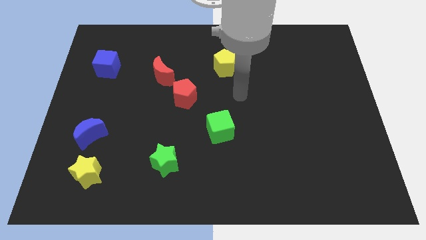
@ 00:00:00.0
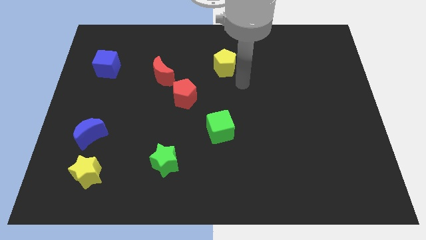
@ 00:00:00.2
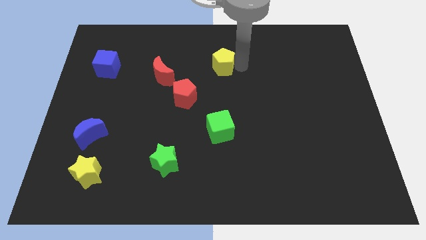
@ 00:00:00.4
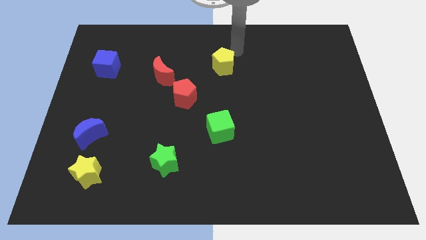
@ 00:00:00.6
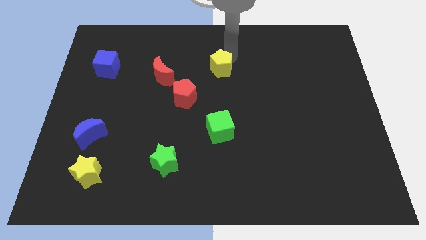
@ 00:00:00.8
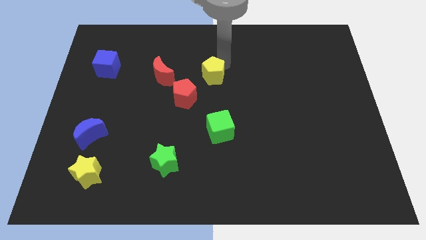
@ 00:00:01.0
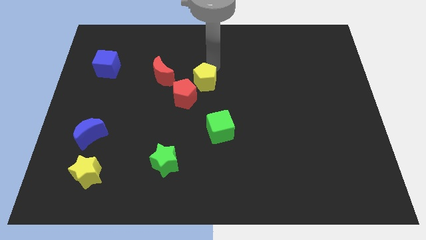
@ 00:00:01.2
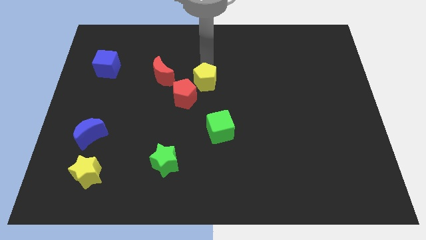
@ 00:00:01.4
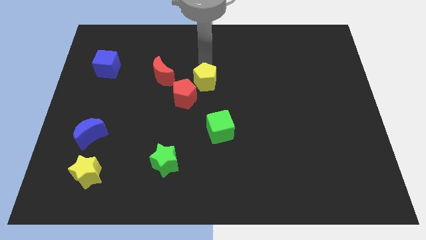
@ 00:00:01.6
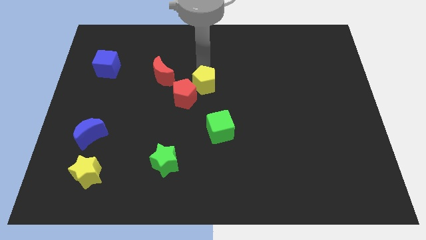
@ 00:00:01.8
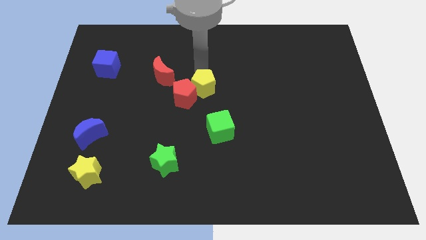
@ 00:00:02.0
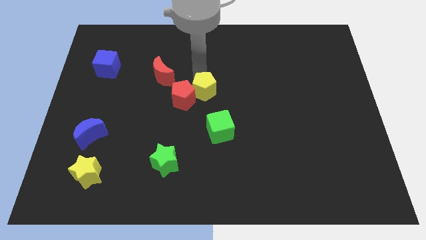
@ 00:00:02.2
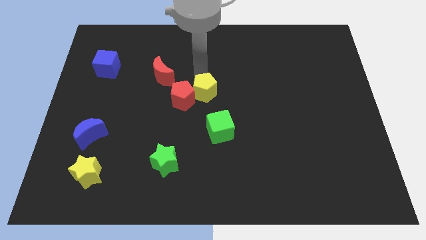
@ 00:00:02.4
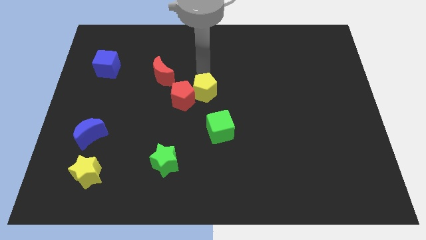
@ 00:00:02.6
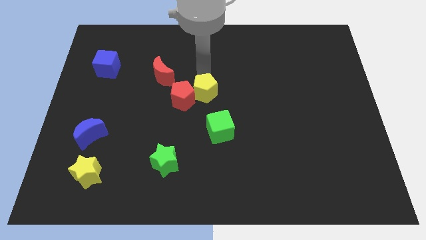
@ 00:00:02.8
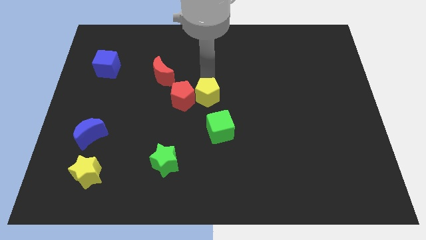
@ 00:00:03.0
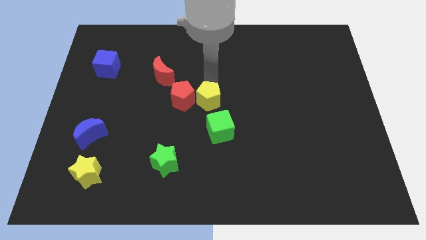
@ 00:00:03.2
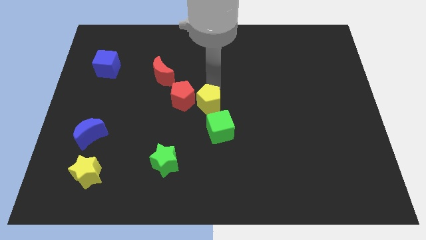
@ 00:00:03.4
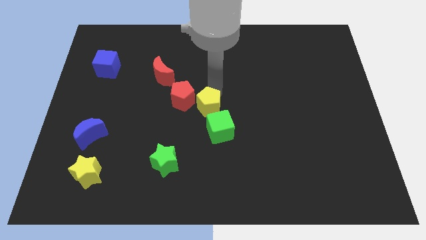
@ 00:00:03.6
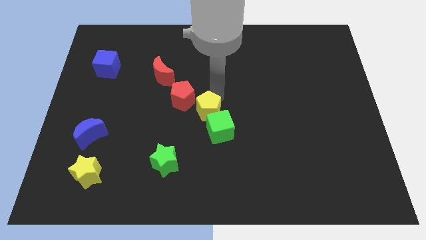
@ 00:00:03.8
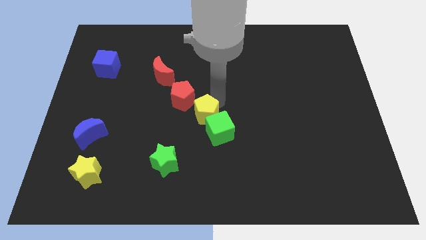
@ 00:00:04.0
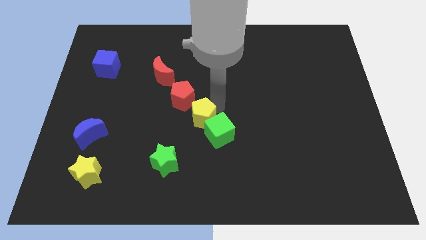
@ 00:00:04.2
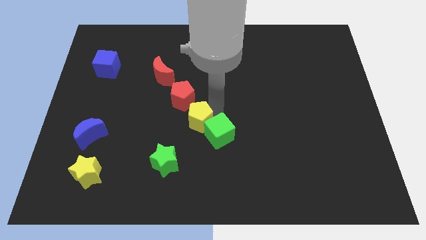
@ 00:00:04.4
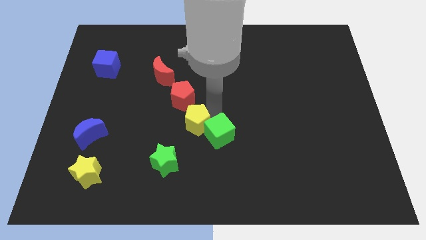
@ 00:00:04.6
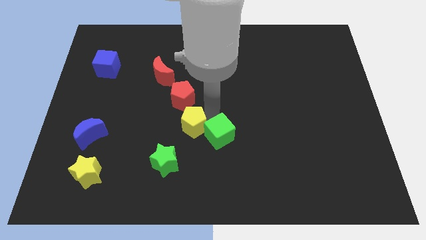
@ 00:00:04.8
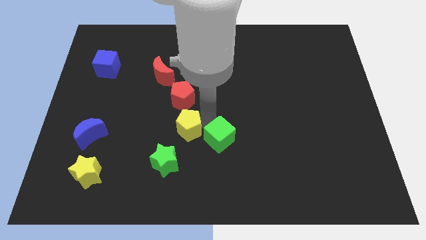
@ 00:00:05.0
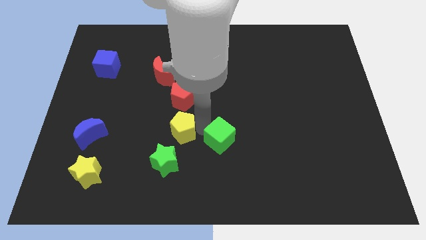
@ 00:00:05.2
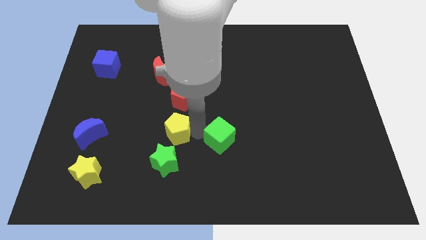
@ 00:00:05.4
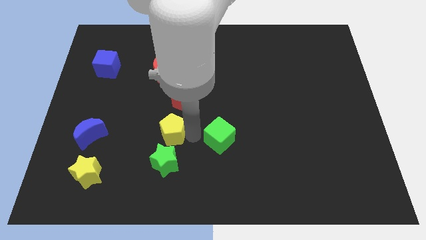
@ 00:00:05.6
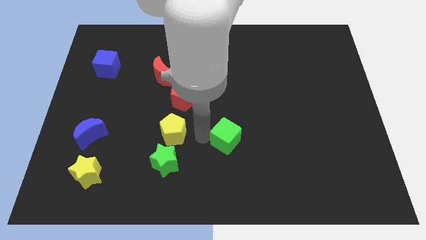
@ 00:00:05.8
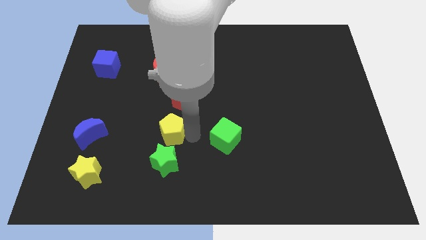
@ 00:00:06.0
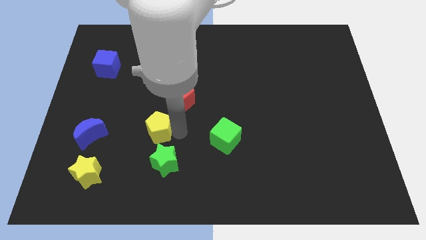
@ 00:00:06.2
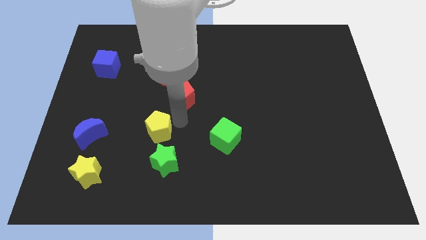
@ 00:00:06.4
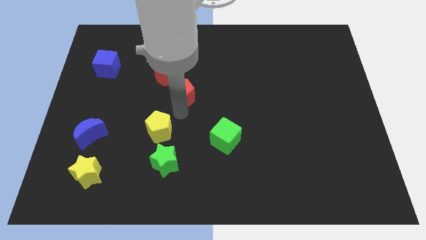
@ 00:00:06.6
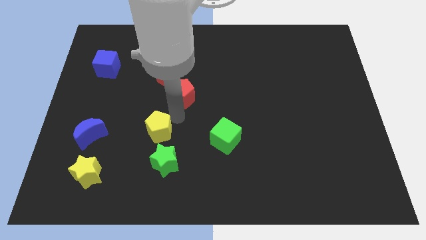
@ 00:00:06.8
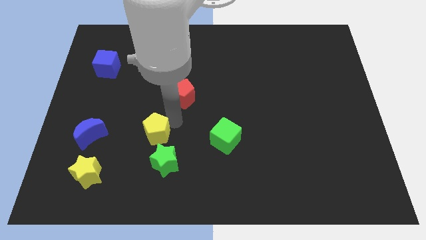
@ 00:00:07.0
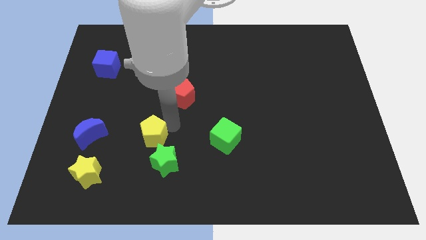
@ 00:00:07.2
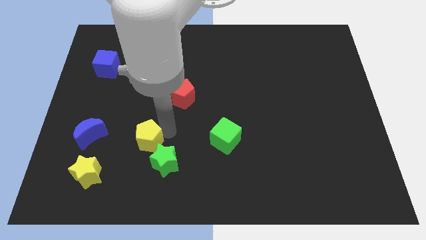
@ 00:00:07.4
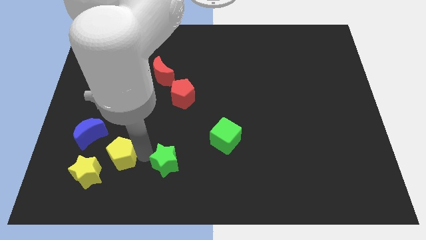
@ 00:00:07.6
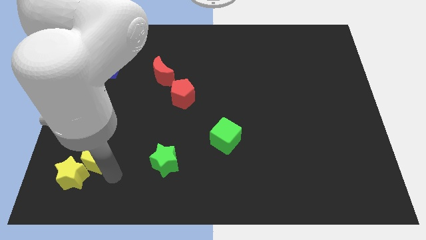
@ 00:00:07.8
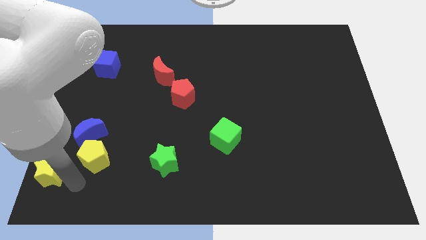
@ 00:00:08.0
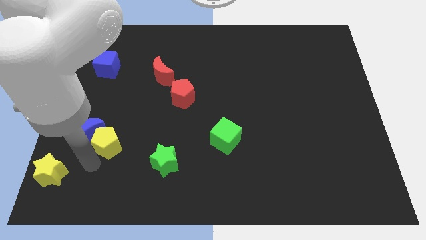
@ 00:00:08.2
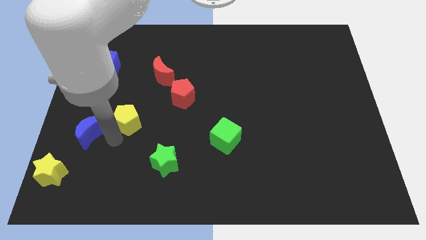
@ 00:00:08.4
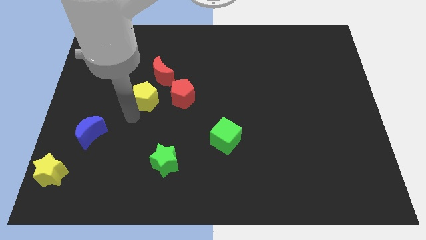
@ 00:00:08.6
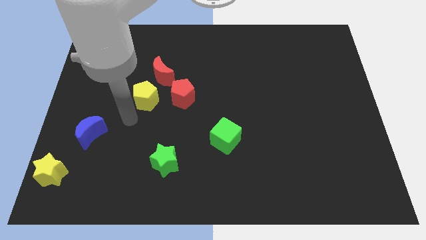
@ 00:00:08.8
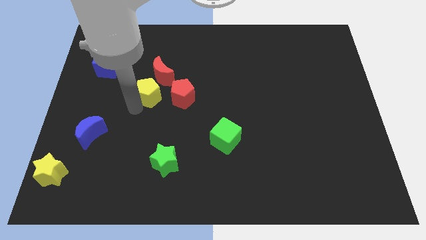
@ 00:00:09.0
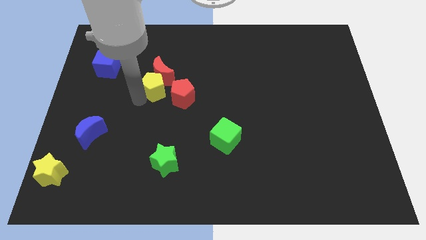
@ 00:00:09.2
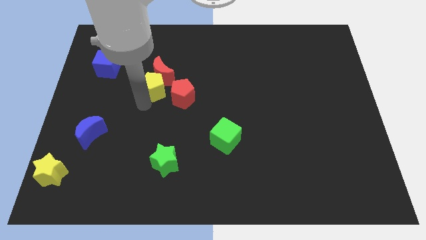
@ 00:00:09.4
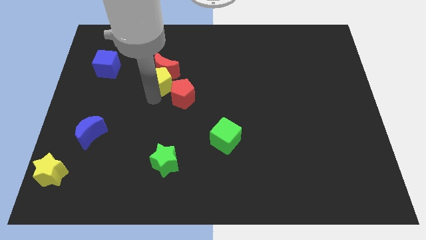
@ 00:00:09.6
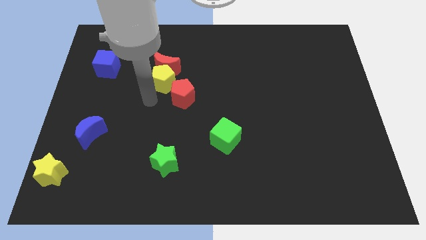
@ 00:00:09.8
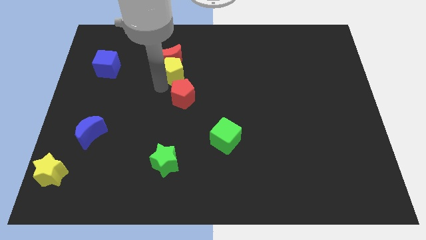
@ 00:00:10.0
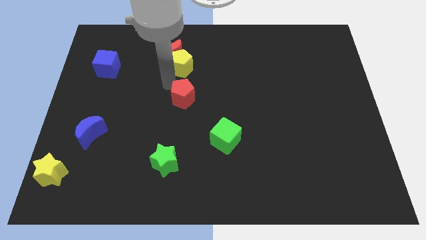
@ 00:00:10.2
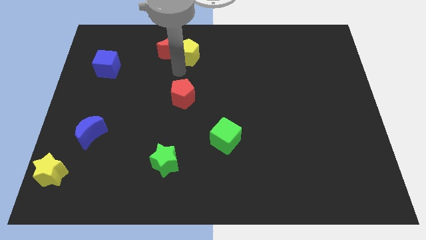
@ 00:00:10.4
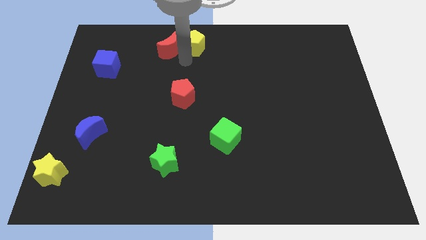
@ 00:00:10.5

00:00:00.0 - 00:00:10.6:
put the yellow pentagon to the towards your base

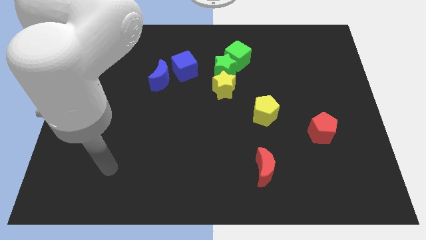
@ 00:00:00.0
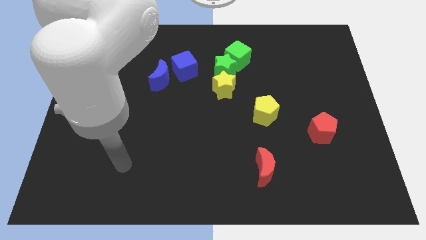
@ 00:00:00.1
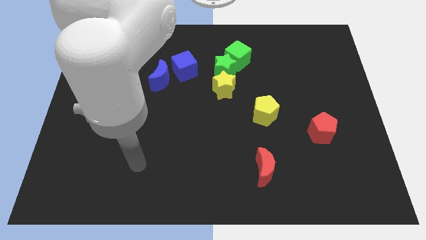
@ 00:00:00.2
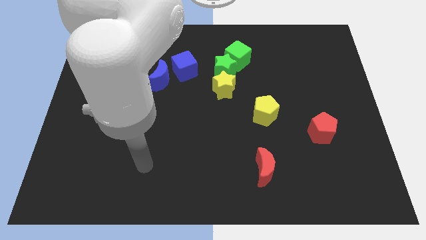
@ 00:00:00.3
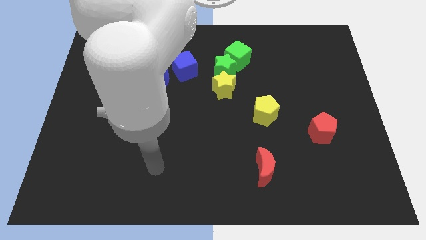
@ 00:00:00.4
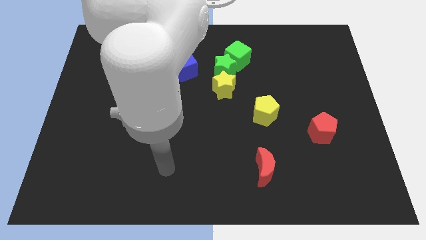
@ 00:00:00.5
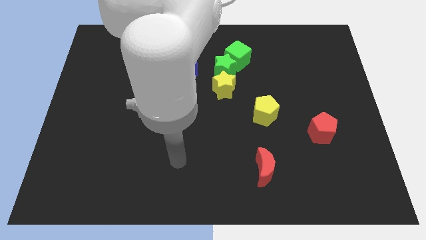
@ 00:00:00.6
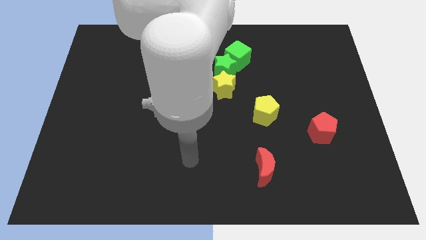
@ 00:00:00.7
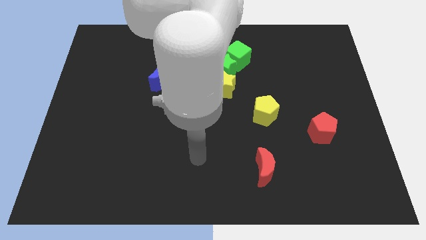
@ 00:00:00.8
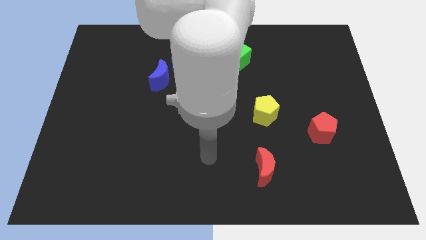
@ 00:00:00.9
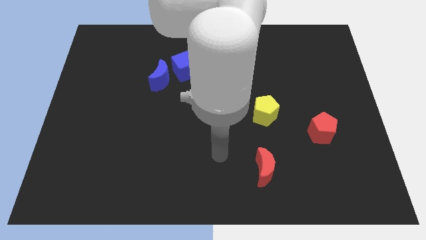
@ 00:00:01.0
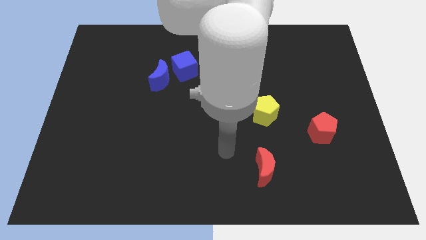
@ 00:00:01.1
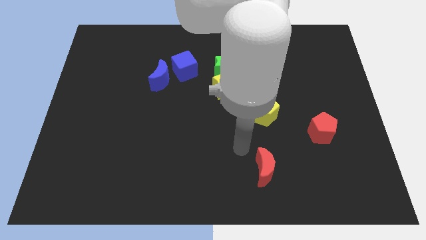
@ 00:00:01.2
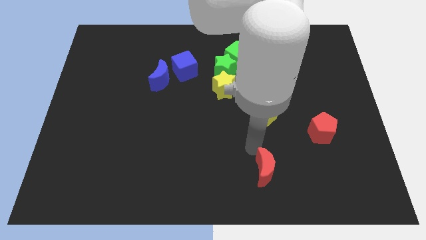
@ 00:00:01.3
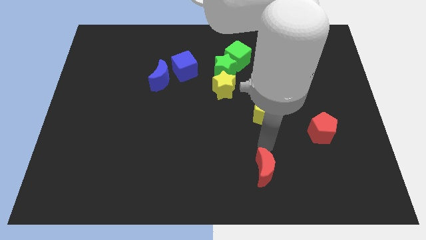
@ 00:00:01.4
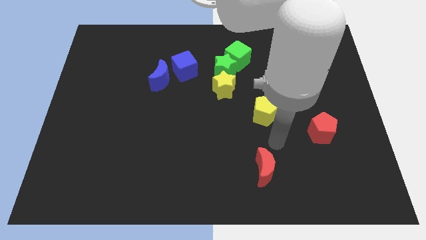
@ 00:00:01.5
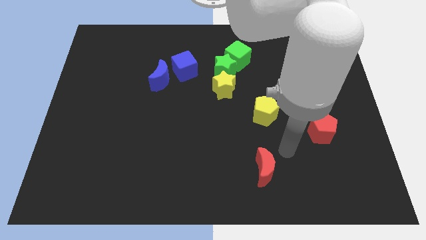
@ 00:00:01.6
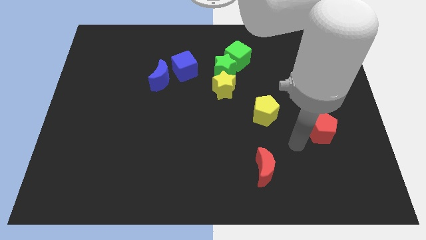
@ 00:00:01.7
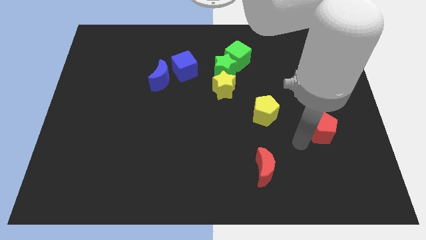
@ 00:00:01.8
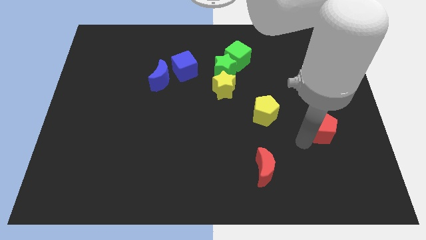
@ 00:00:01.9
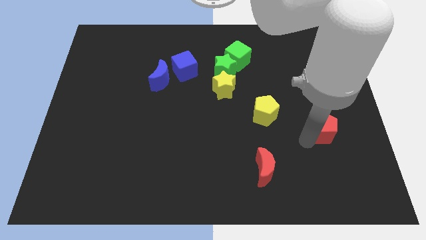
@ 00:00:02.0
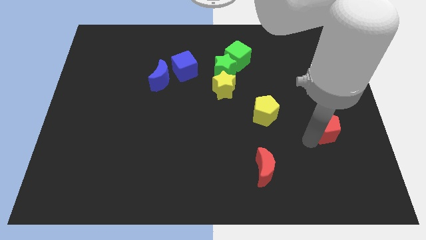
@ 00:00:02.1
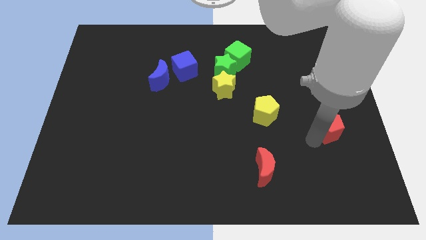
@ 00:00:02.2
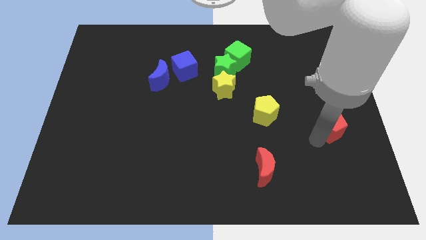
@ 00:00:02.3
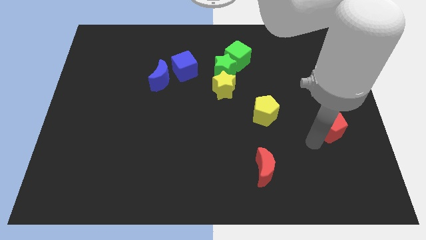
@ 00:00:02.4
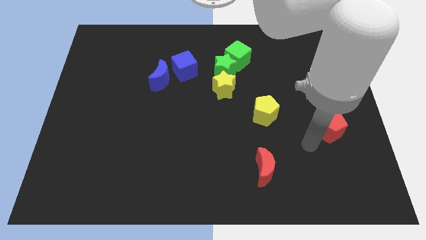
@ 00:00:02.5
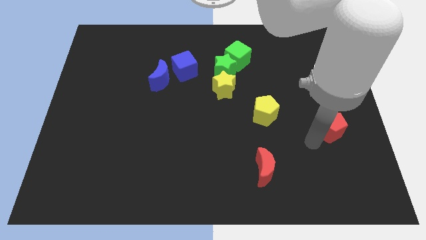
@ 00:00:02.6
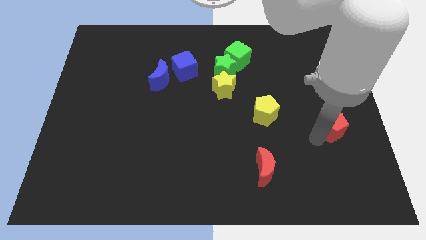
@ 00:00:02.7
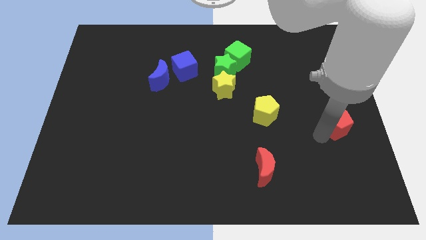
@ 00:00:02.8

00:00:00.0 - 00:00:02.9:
put the red pentagon to the right side
